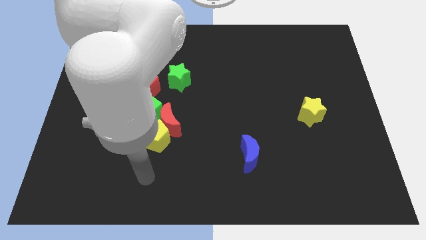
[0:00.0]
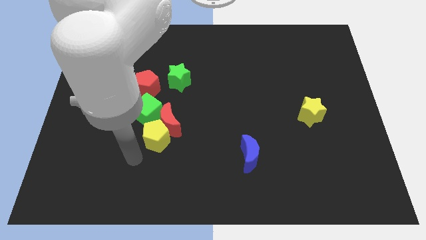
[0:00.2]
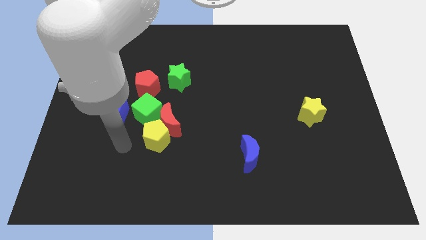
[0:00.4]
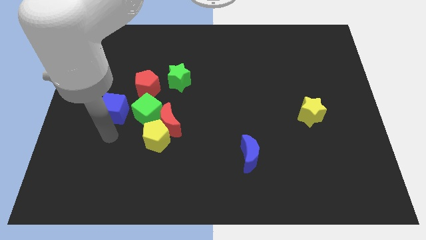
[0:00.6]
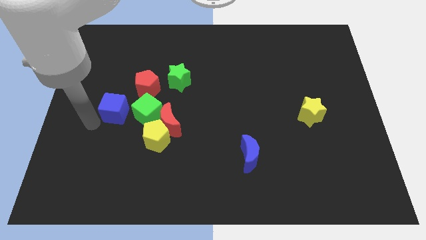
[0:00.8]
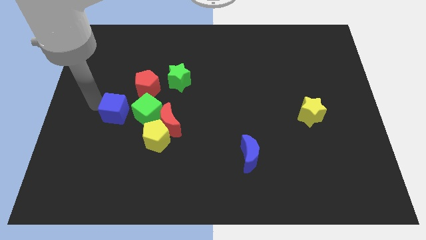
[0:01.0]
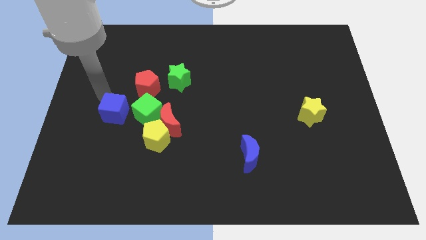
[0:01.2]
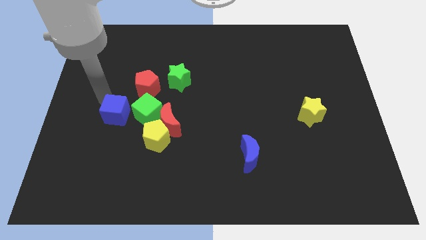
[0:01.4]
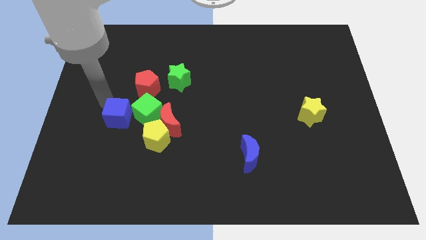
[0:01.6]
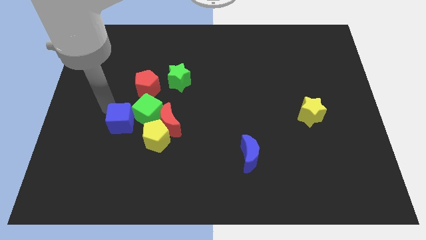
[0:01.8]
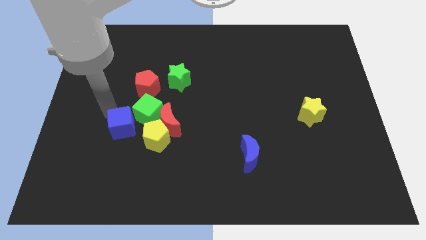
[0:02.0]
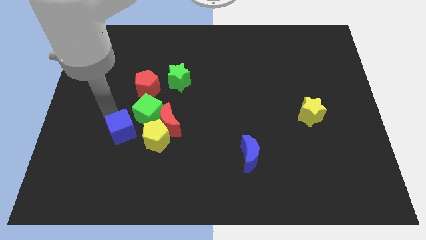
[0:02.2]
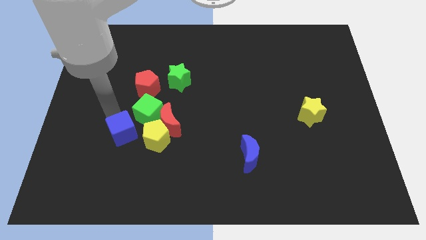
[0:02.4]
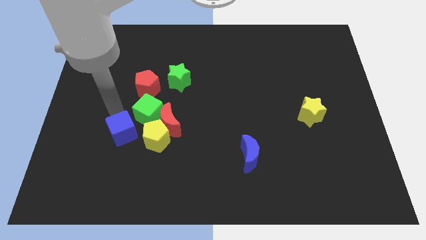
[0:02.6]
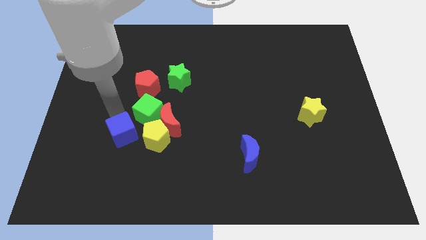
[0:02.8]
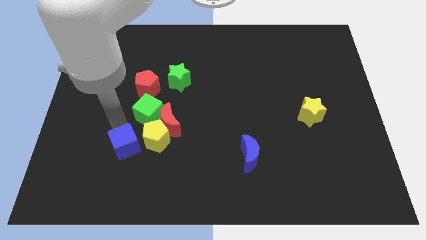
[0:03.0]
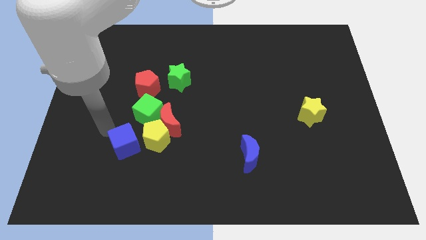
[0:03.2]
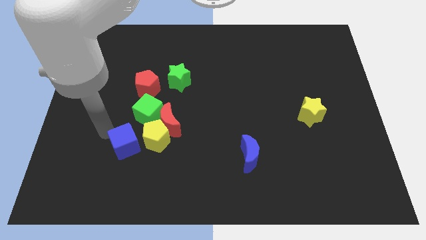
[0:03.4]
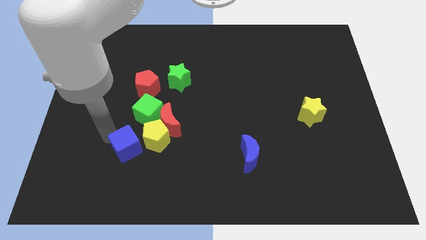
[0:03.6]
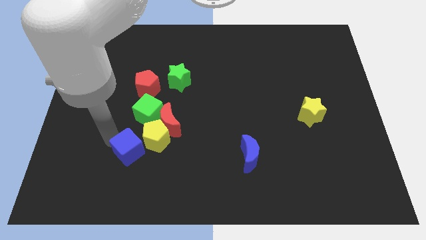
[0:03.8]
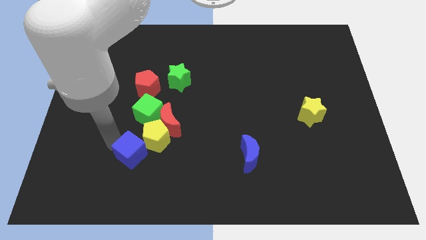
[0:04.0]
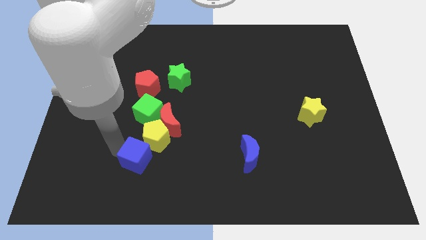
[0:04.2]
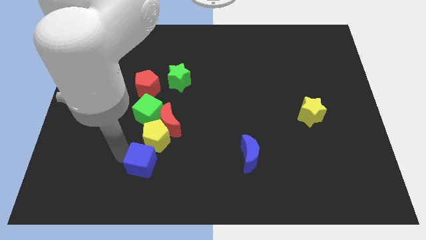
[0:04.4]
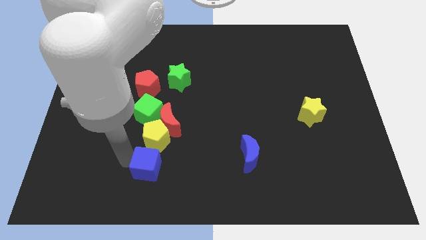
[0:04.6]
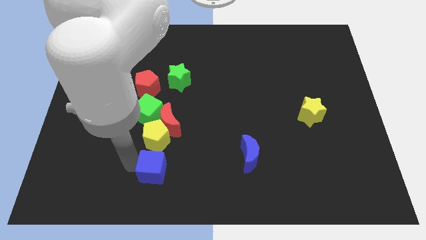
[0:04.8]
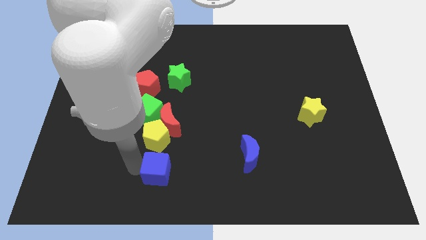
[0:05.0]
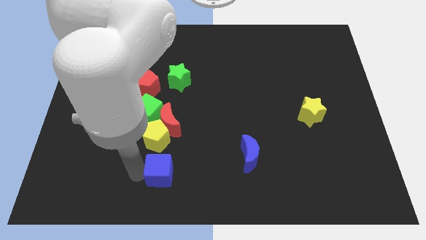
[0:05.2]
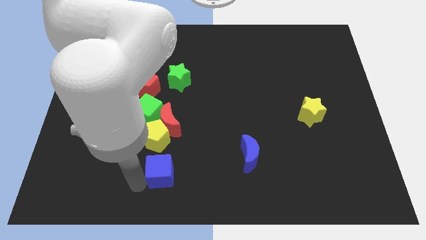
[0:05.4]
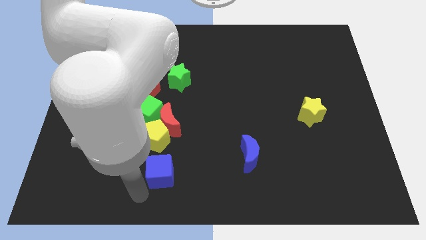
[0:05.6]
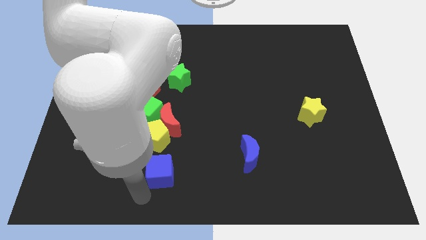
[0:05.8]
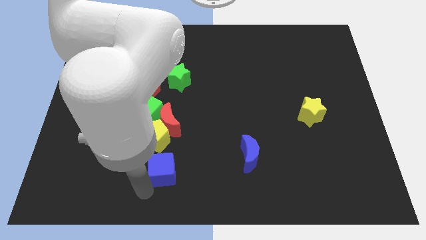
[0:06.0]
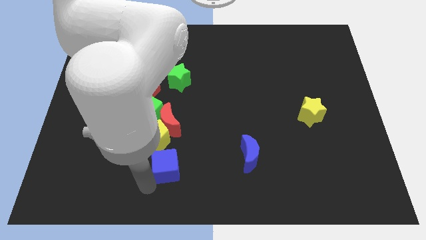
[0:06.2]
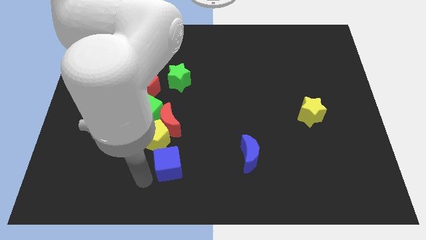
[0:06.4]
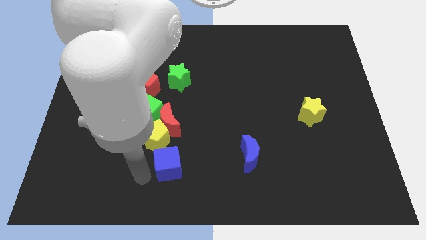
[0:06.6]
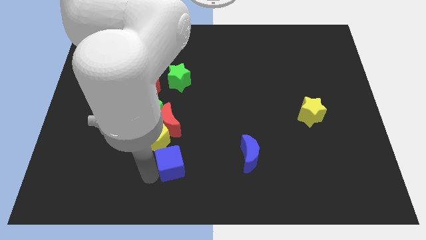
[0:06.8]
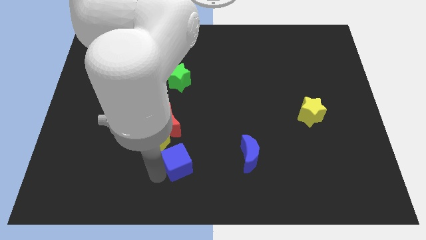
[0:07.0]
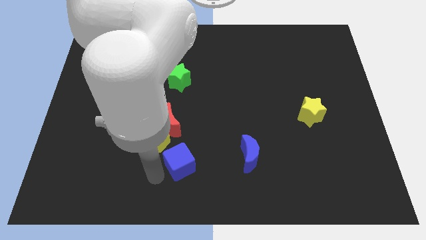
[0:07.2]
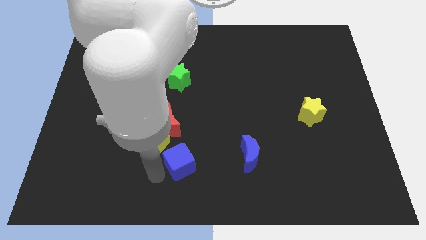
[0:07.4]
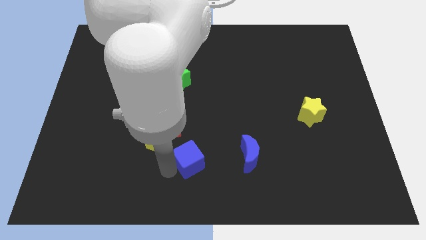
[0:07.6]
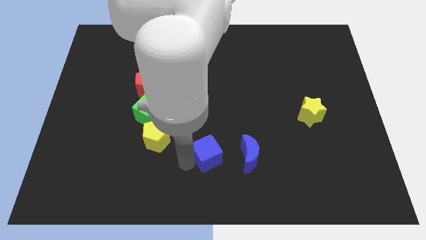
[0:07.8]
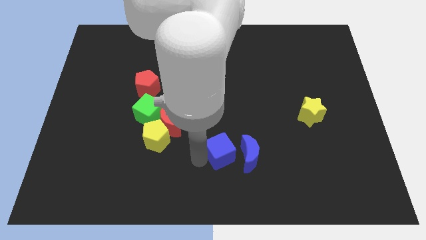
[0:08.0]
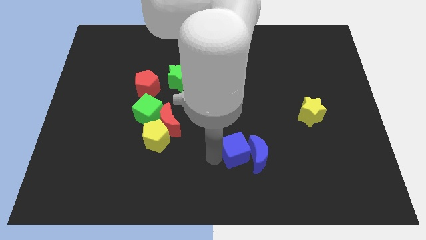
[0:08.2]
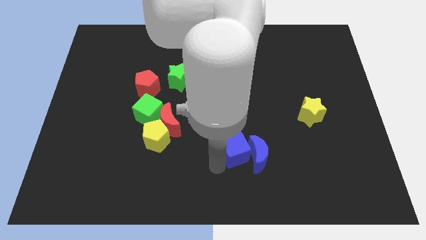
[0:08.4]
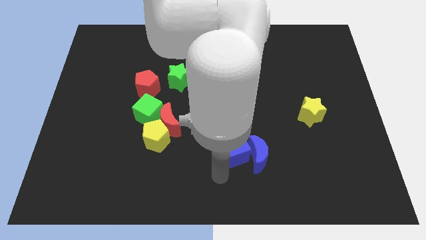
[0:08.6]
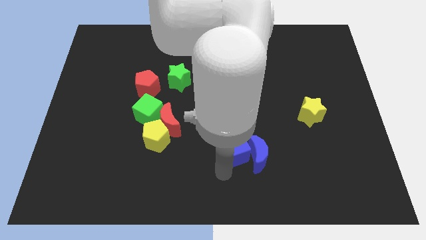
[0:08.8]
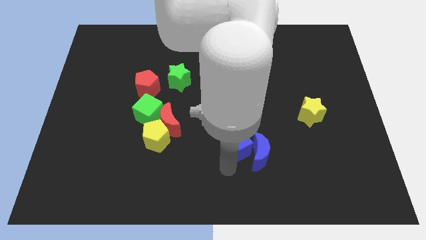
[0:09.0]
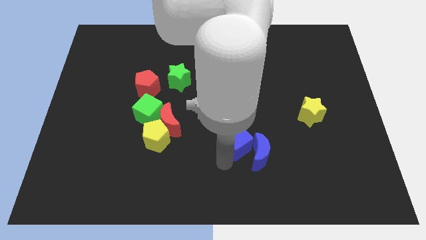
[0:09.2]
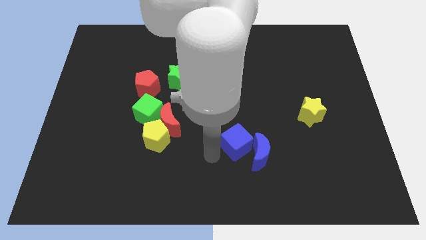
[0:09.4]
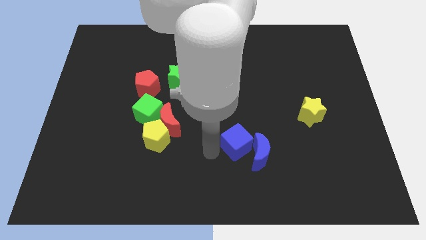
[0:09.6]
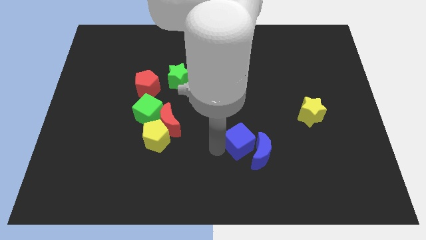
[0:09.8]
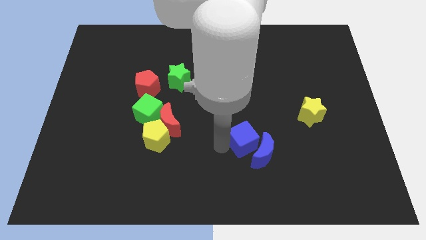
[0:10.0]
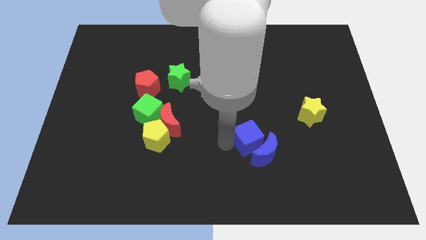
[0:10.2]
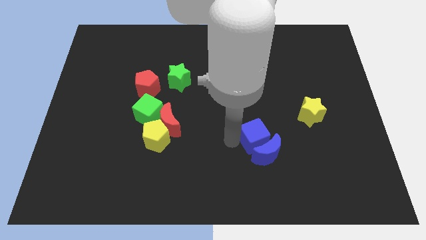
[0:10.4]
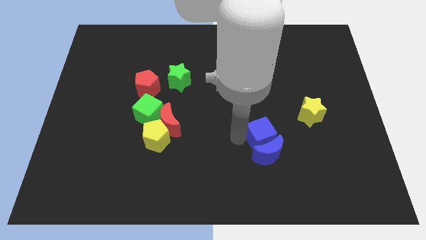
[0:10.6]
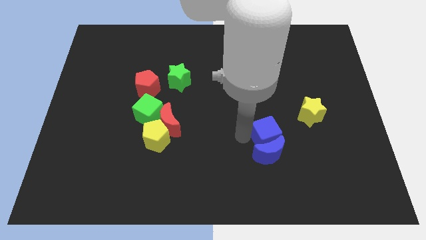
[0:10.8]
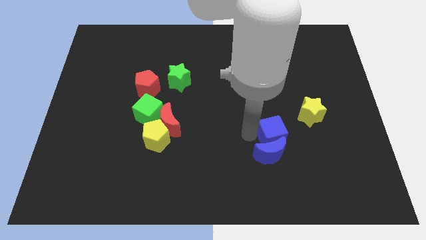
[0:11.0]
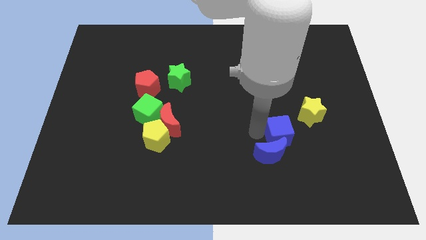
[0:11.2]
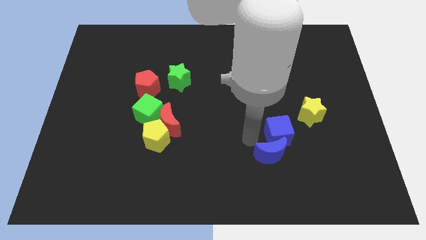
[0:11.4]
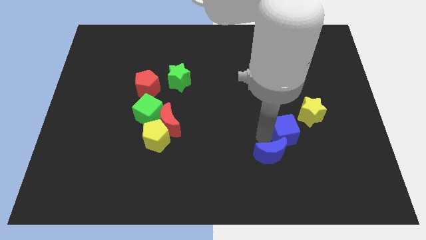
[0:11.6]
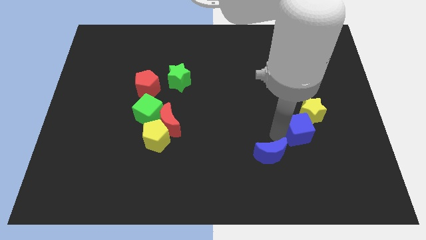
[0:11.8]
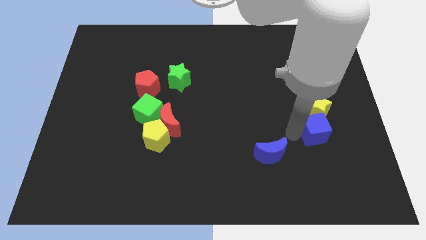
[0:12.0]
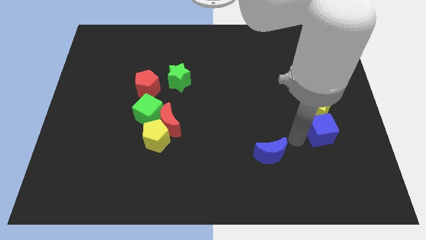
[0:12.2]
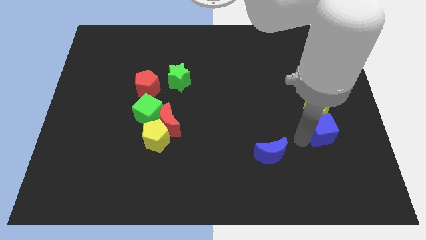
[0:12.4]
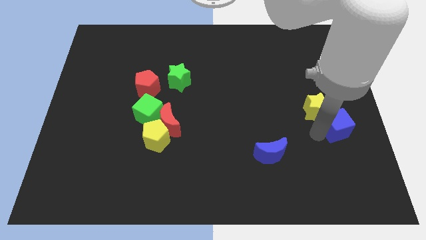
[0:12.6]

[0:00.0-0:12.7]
put the blue cube to the right side
